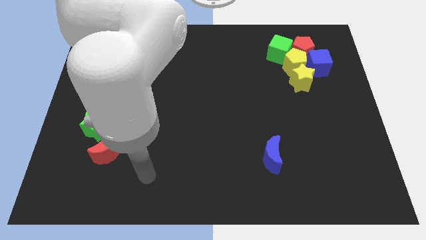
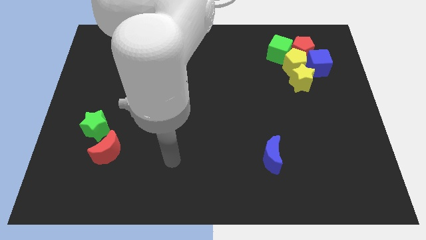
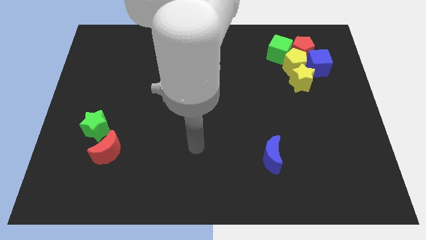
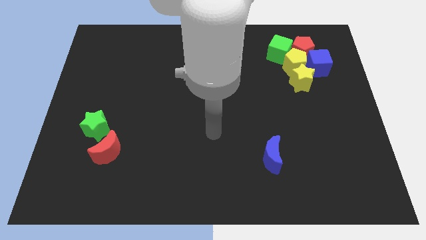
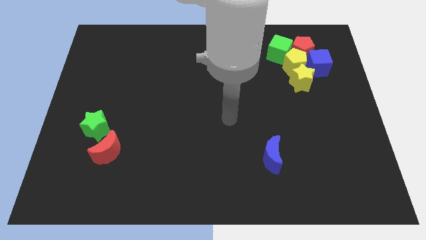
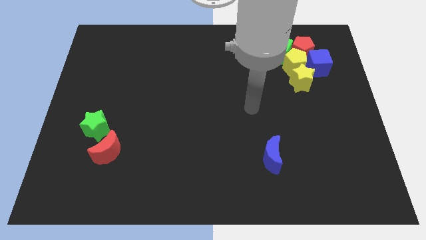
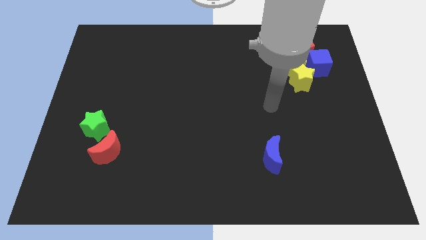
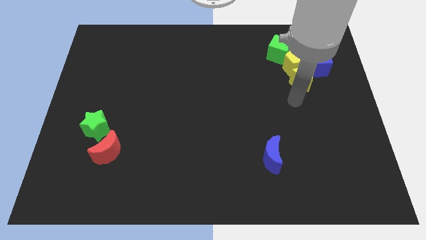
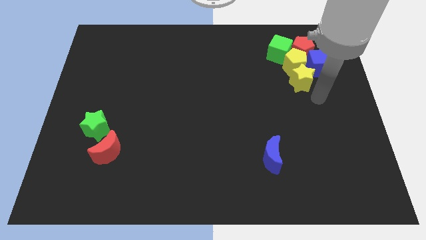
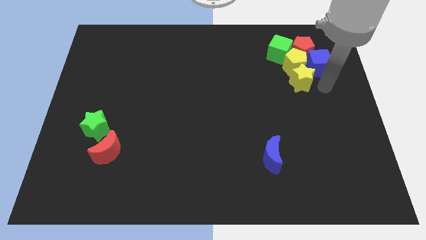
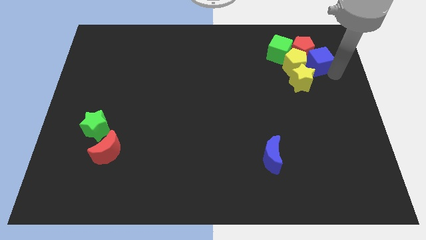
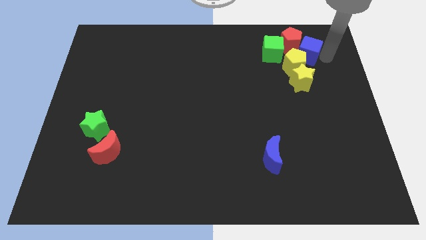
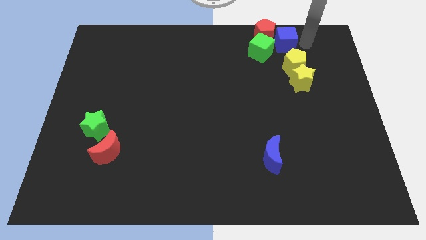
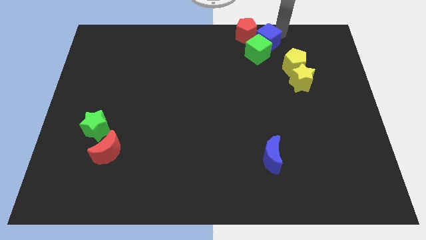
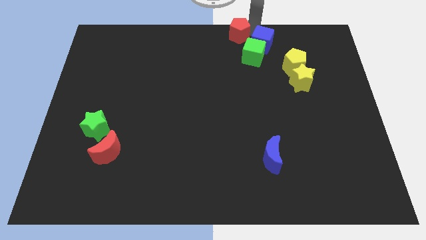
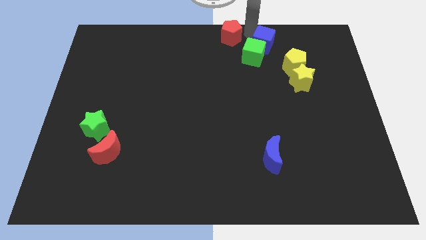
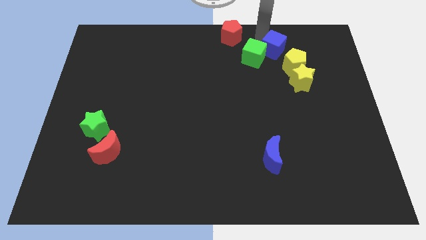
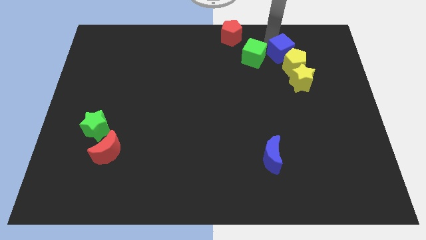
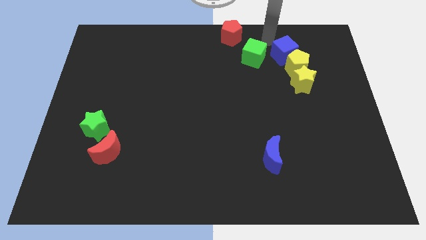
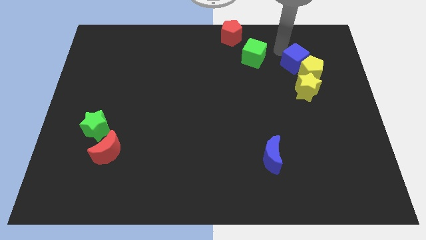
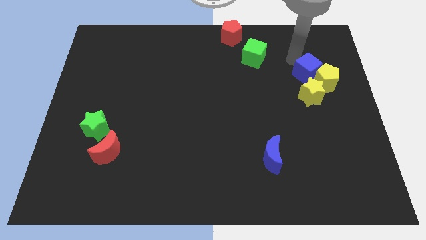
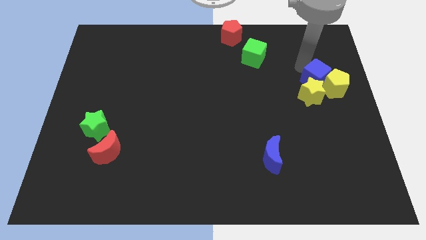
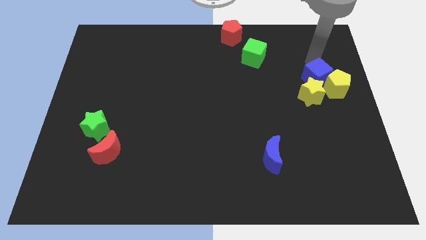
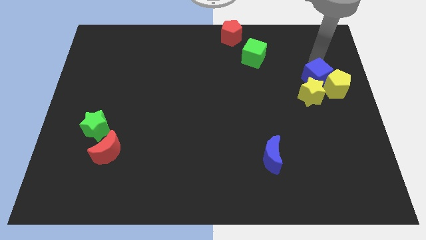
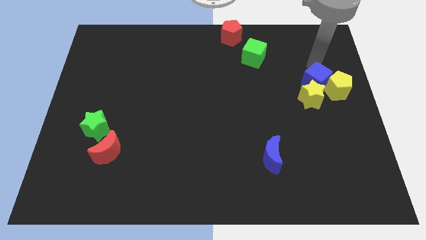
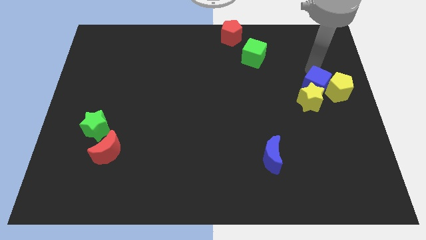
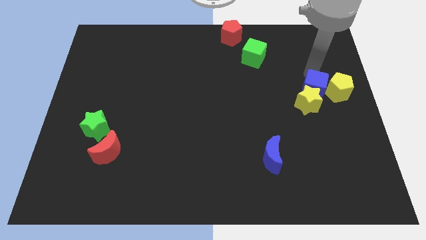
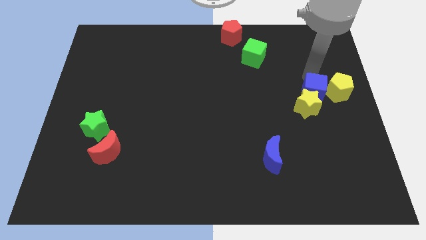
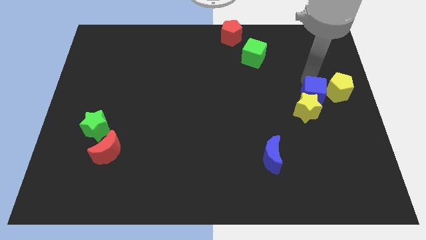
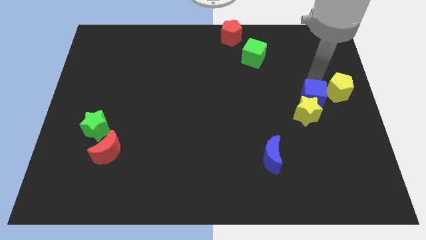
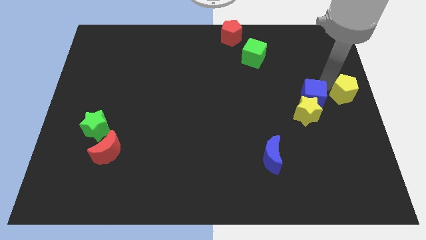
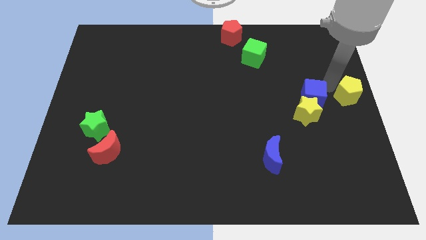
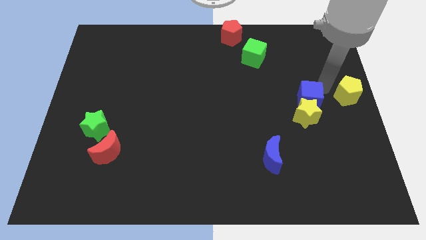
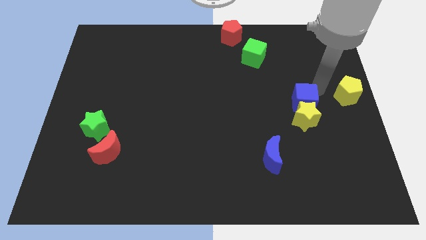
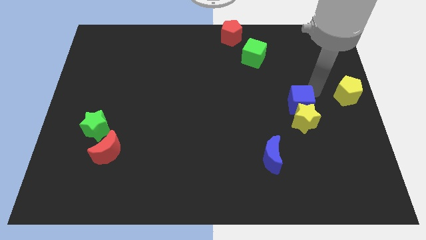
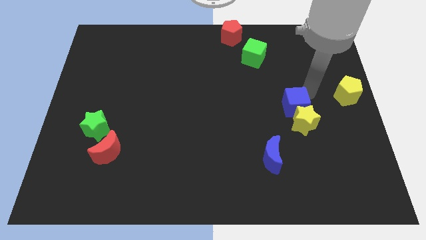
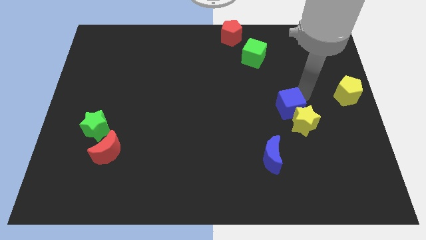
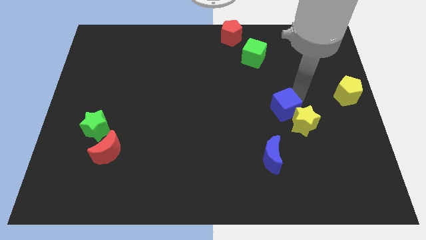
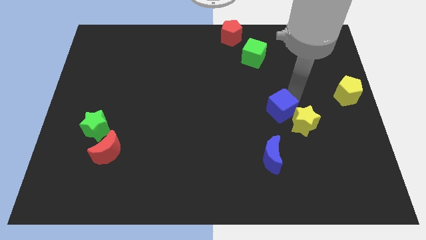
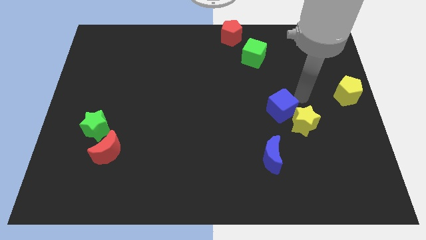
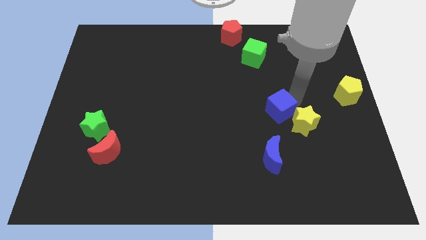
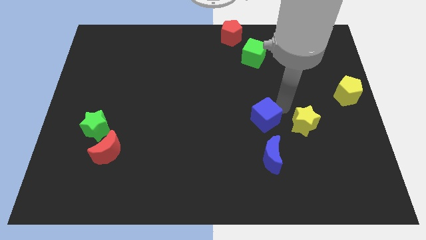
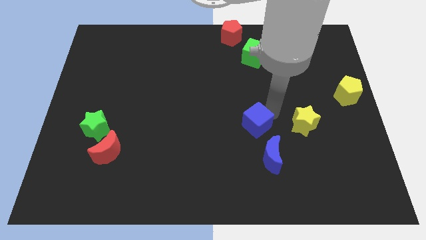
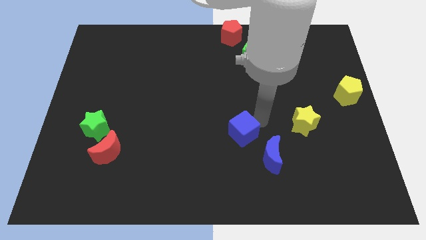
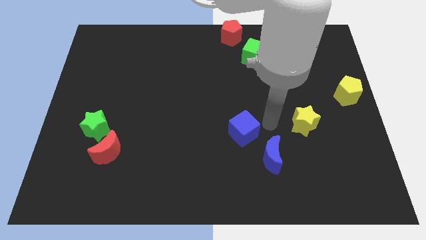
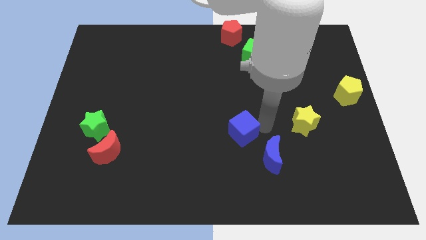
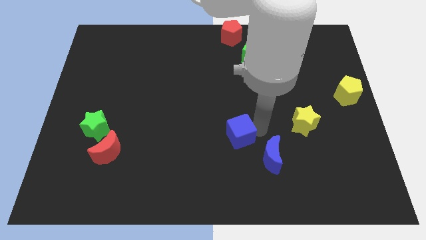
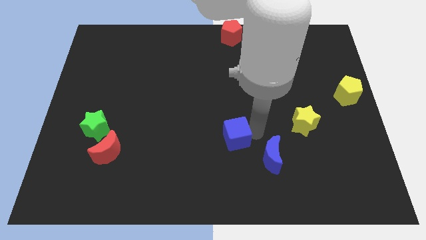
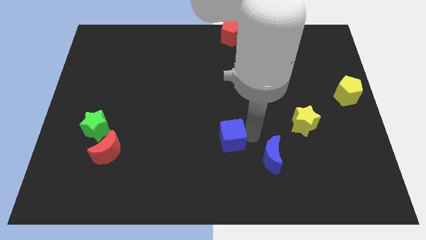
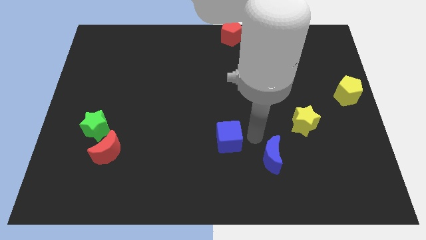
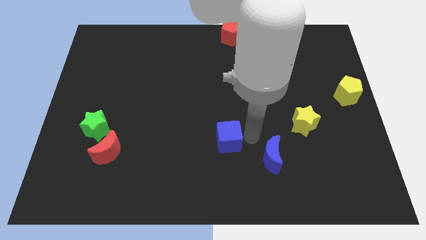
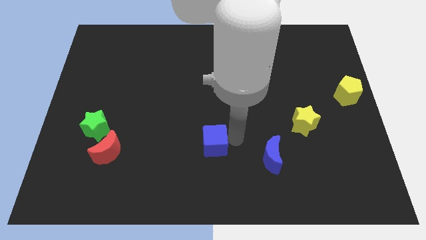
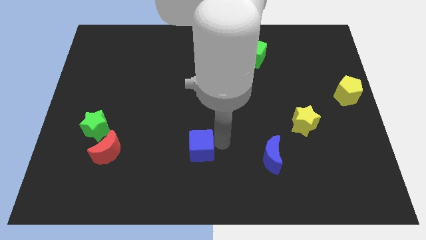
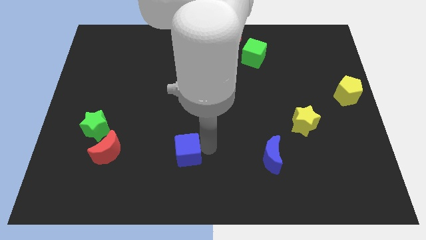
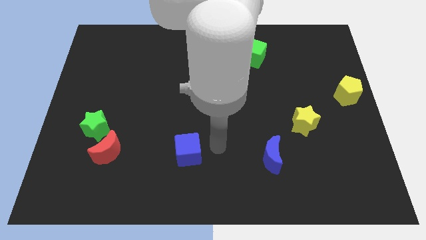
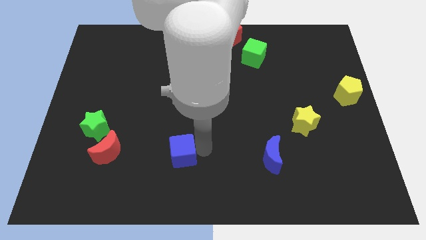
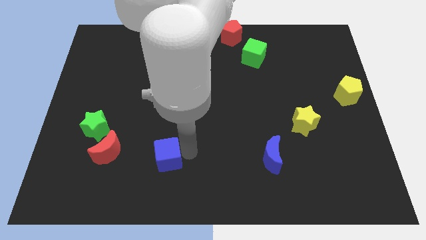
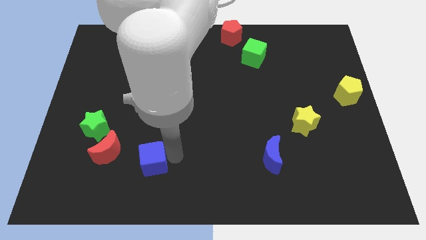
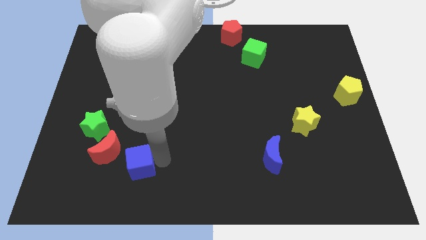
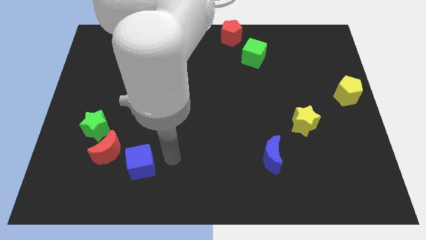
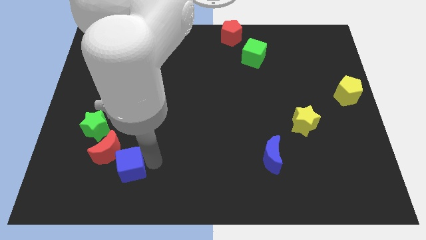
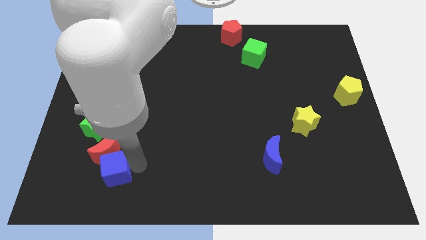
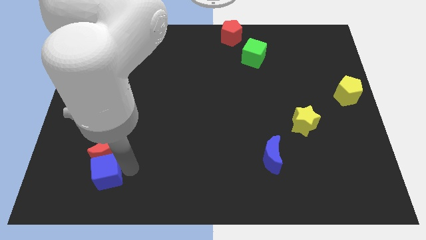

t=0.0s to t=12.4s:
move the blue cube to the bottom of the green star

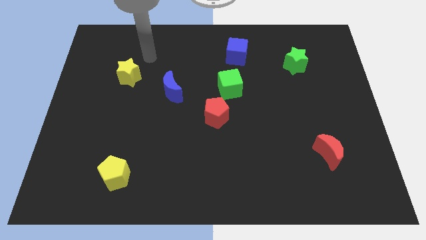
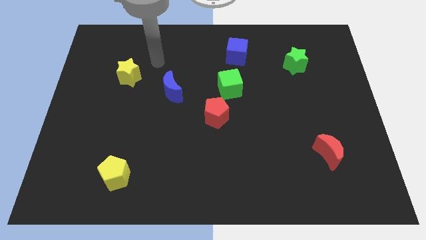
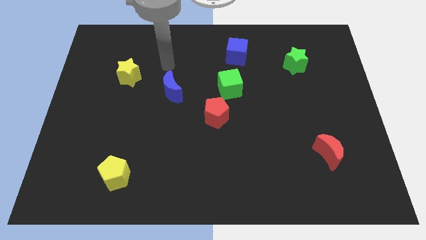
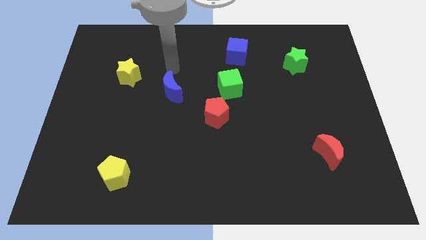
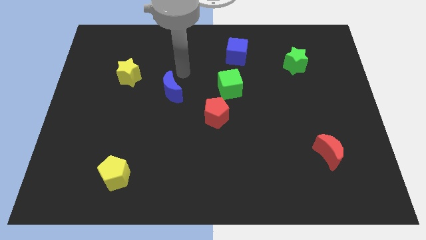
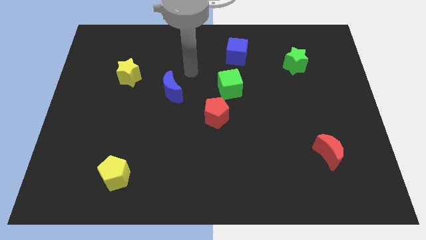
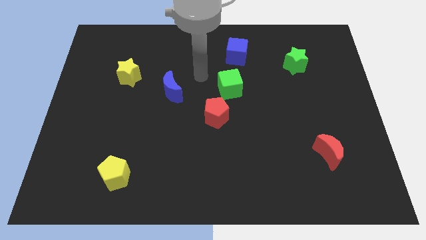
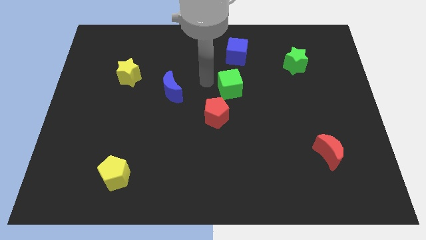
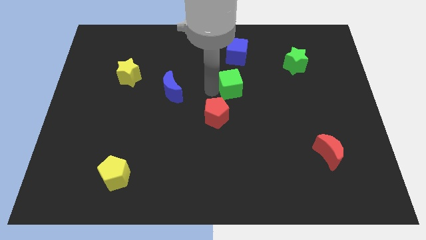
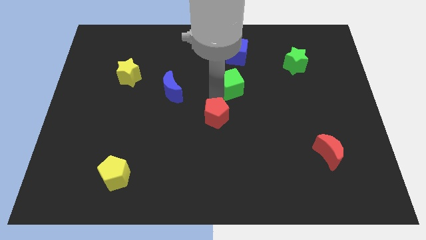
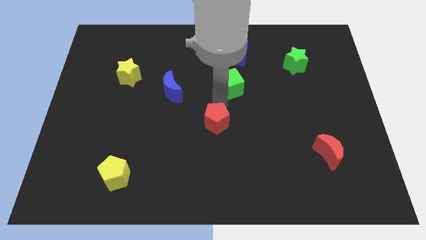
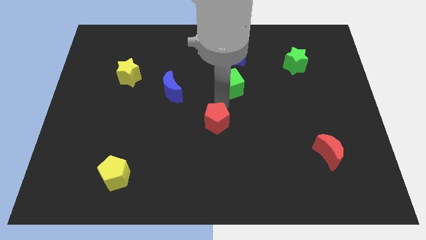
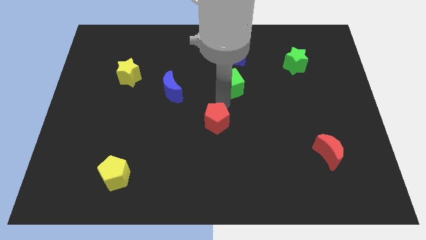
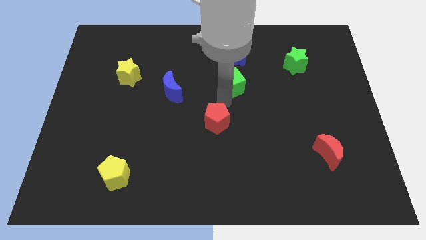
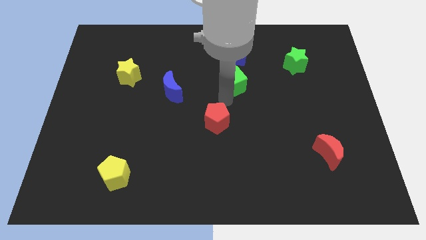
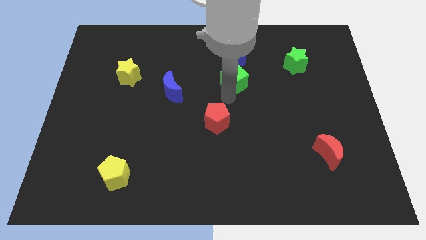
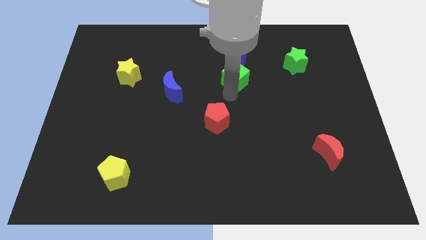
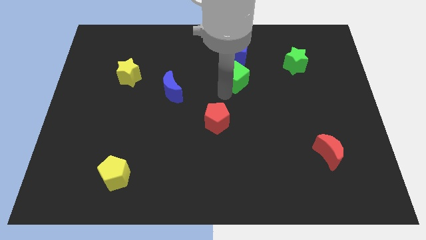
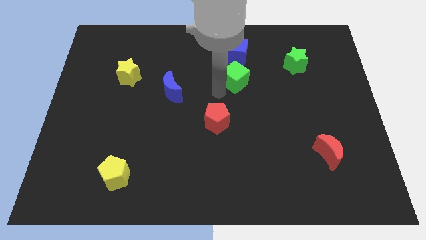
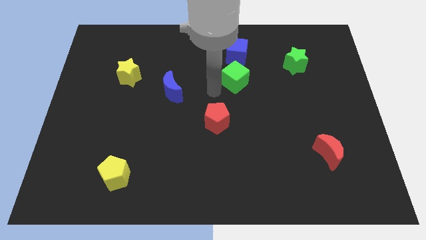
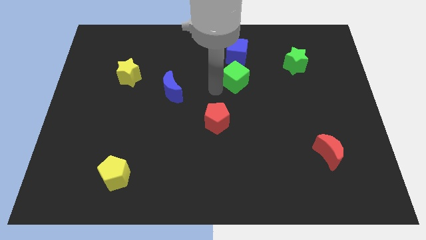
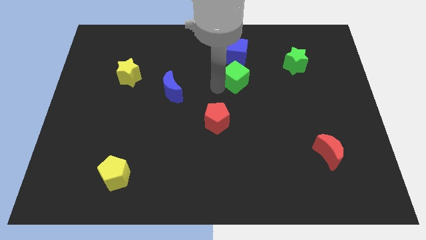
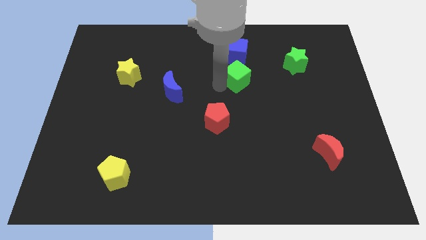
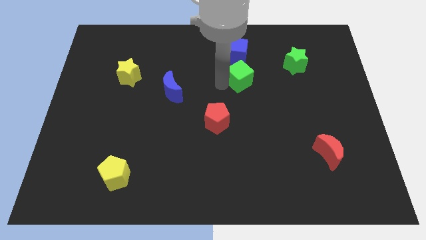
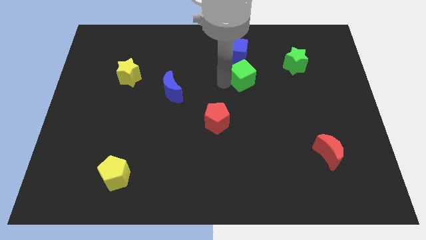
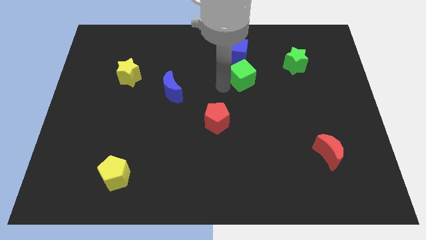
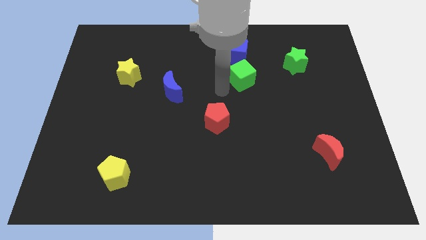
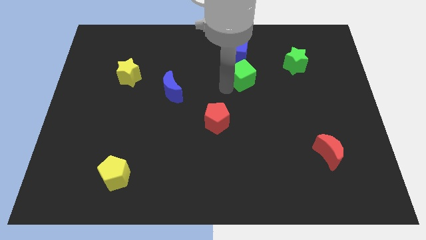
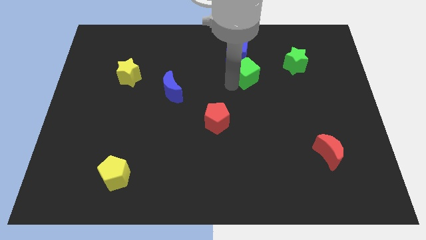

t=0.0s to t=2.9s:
slide the green cube diagonally down and to the right of the blue cube
